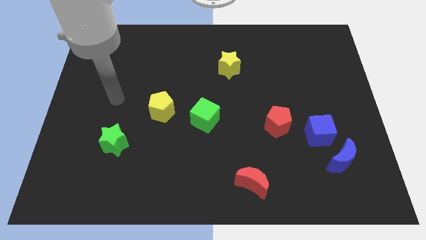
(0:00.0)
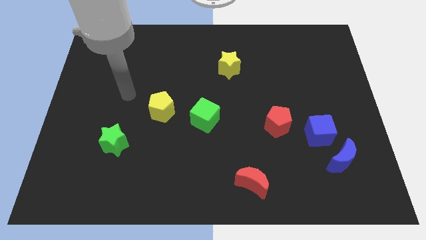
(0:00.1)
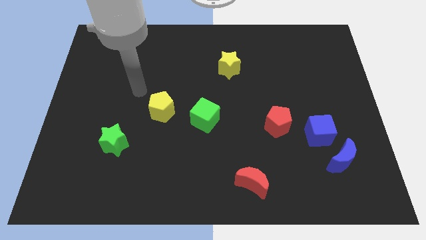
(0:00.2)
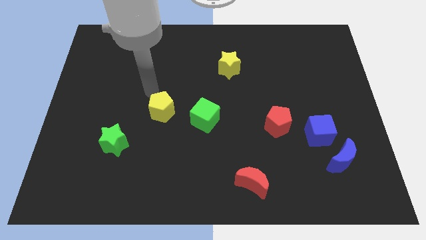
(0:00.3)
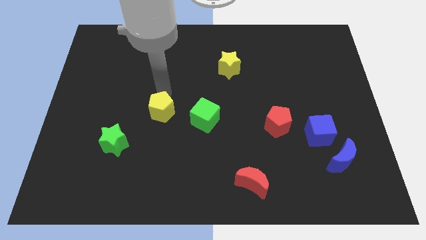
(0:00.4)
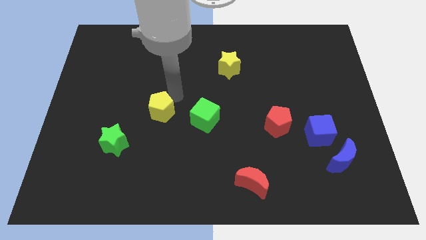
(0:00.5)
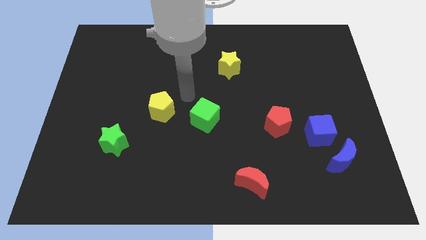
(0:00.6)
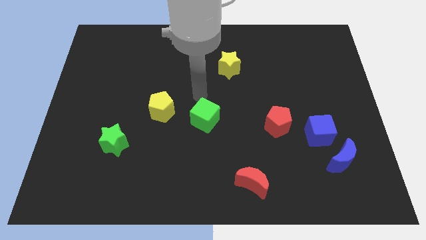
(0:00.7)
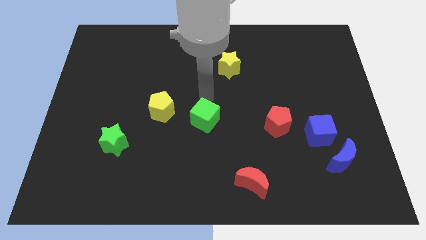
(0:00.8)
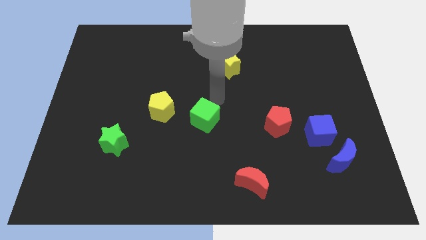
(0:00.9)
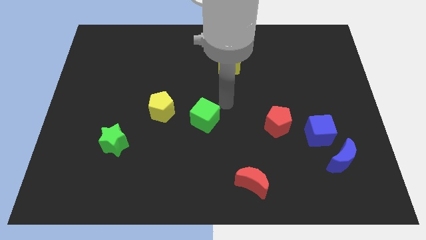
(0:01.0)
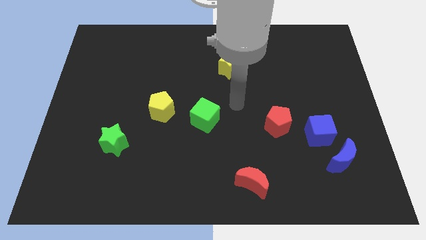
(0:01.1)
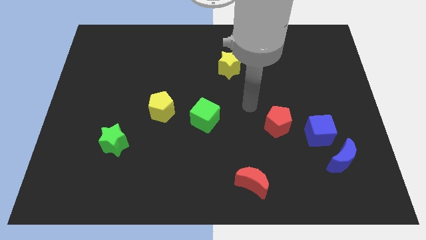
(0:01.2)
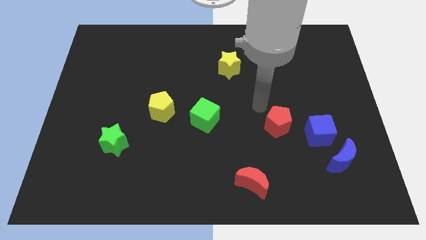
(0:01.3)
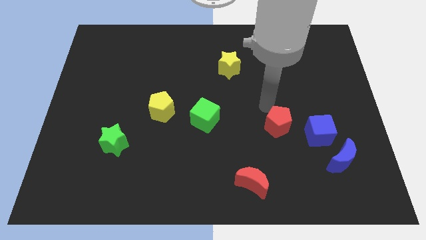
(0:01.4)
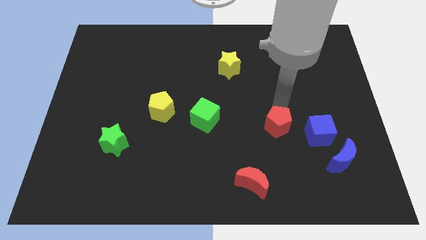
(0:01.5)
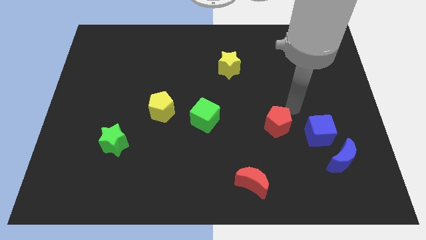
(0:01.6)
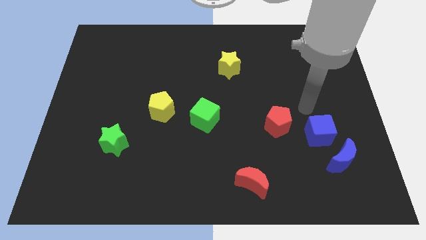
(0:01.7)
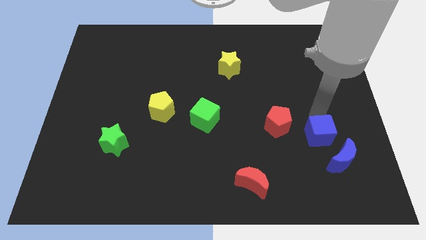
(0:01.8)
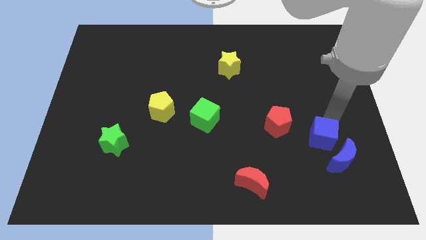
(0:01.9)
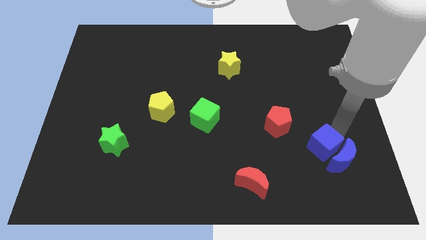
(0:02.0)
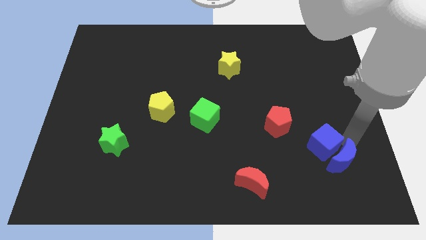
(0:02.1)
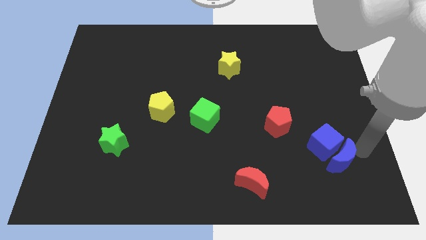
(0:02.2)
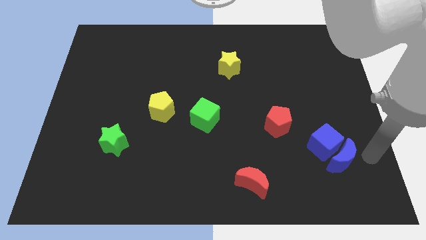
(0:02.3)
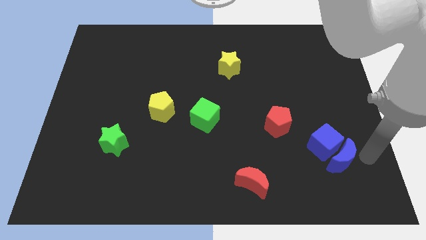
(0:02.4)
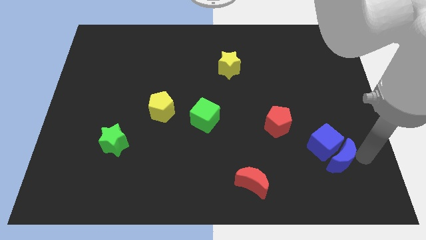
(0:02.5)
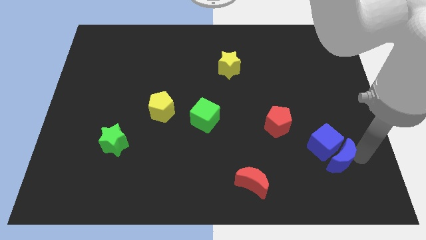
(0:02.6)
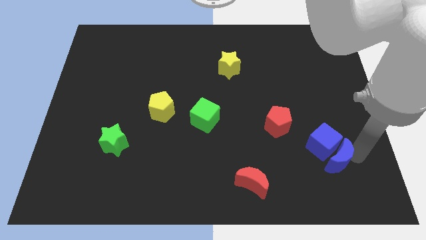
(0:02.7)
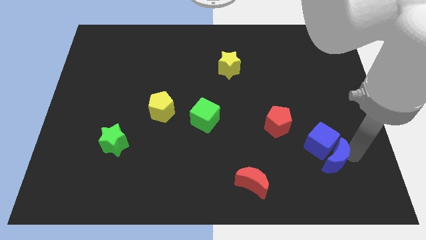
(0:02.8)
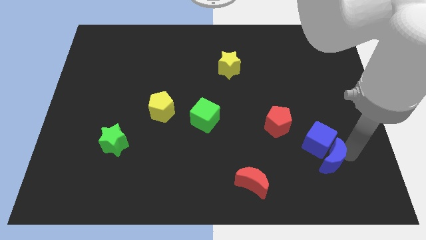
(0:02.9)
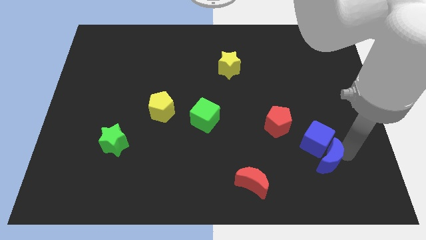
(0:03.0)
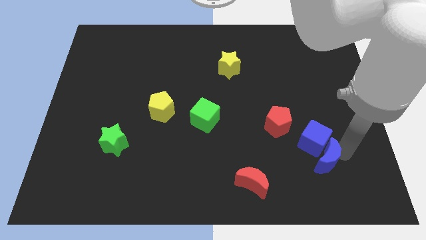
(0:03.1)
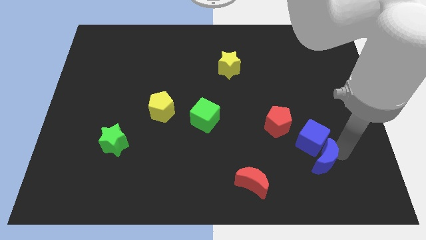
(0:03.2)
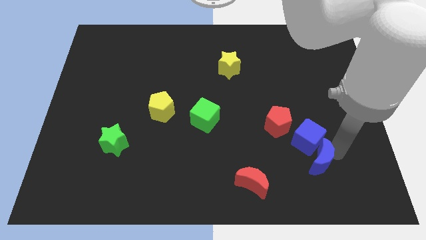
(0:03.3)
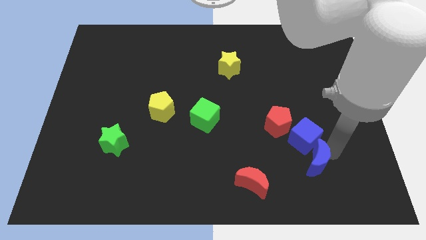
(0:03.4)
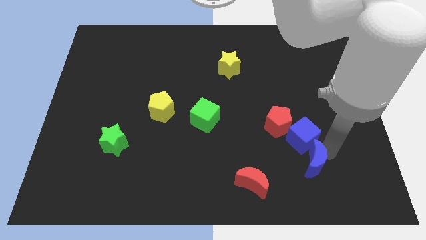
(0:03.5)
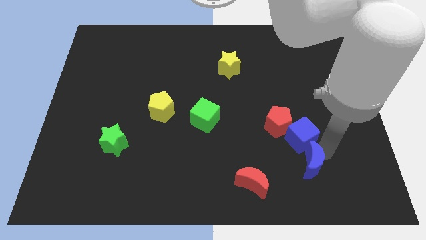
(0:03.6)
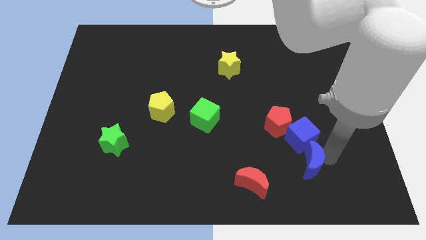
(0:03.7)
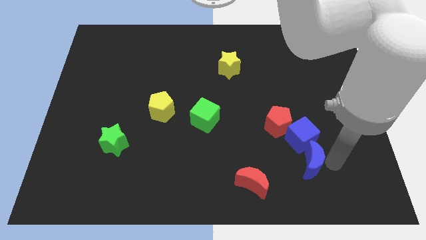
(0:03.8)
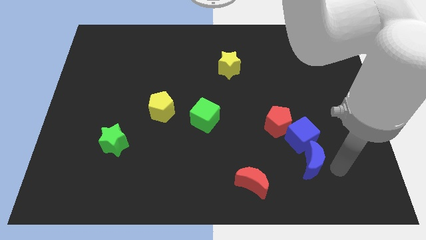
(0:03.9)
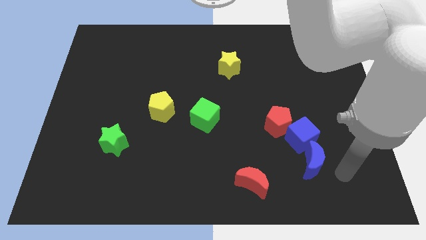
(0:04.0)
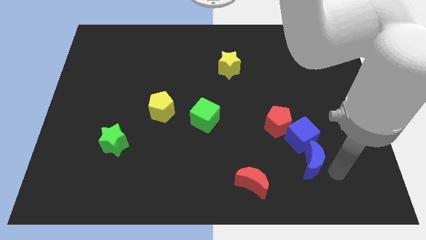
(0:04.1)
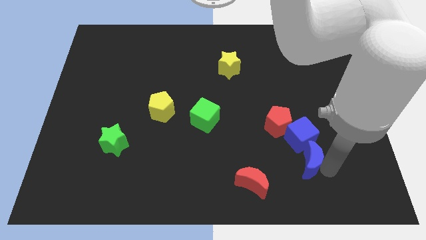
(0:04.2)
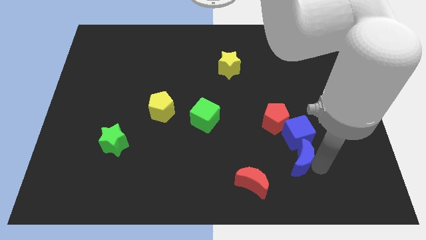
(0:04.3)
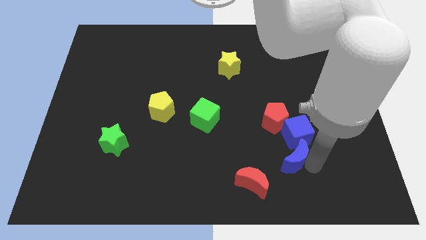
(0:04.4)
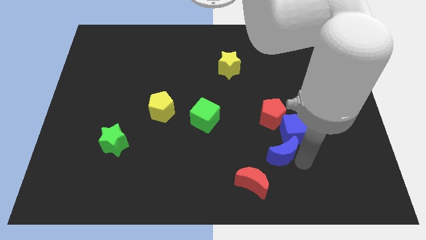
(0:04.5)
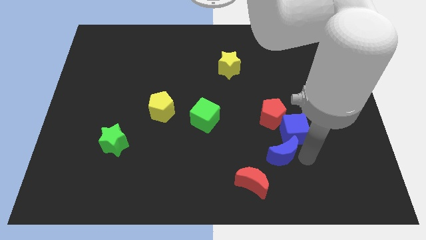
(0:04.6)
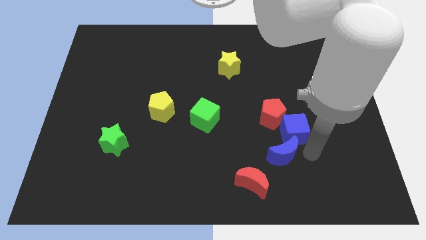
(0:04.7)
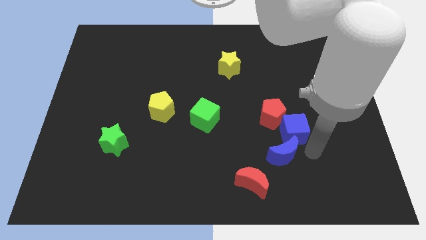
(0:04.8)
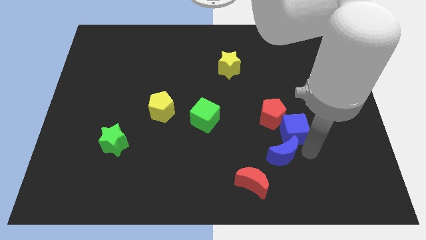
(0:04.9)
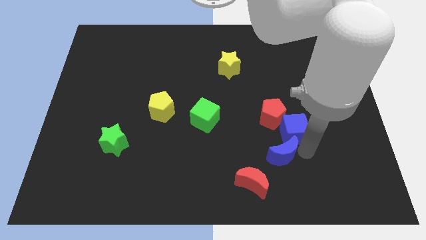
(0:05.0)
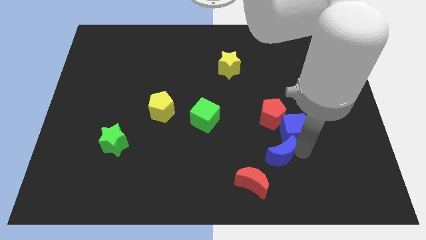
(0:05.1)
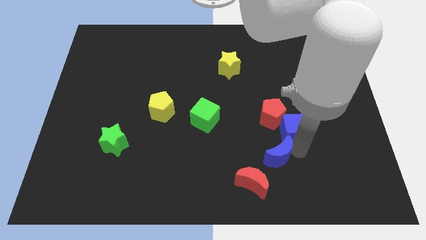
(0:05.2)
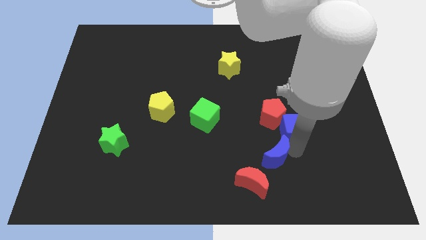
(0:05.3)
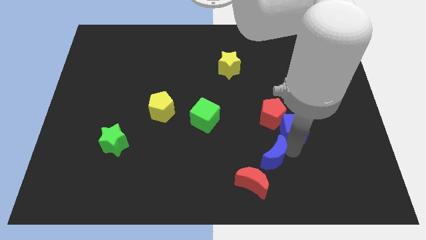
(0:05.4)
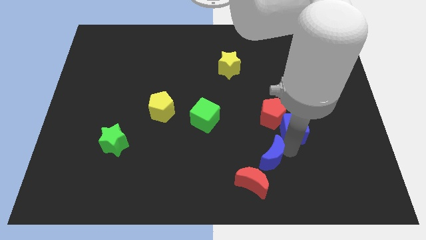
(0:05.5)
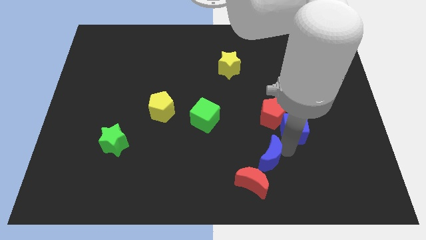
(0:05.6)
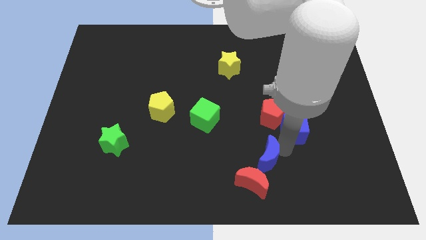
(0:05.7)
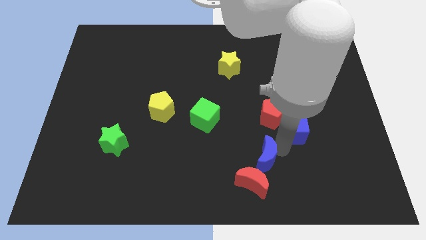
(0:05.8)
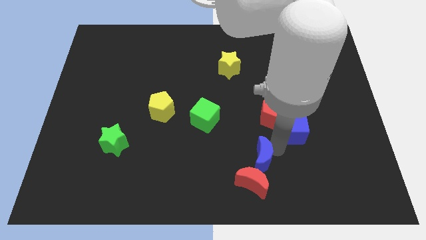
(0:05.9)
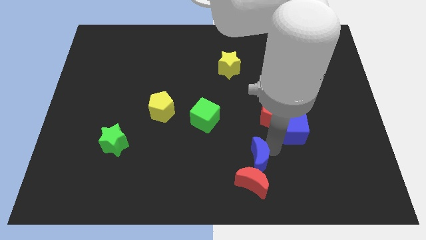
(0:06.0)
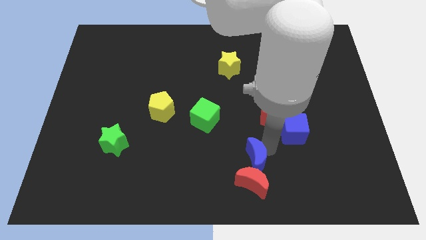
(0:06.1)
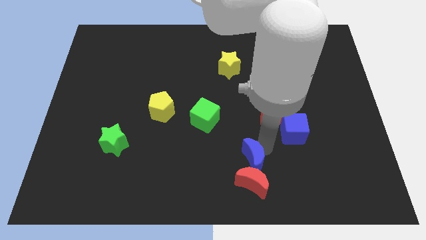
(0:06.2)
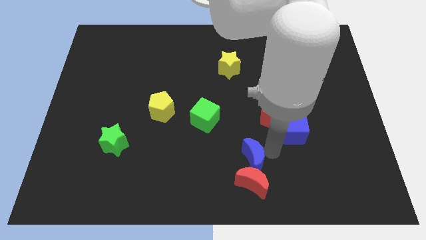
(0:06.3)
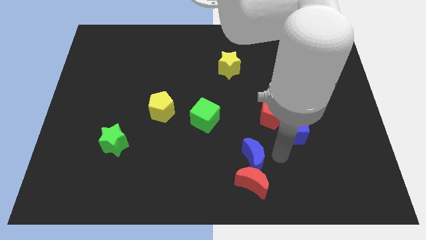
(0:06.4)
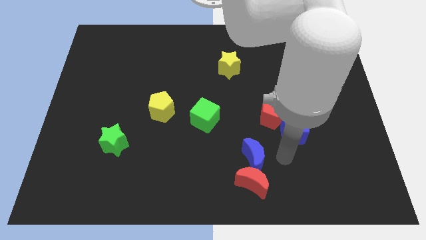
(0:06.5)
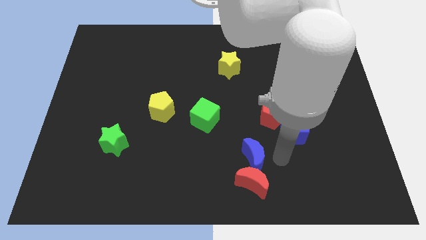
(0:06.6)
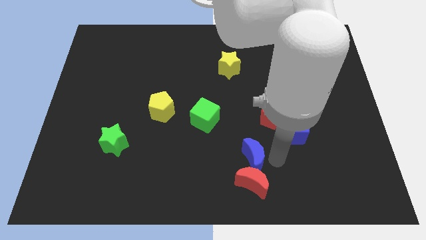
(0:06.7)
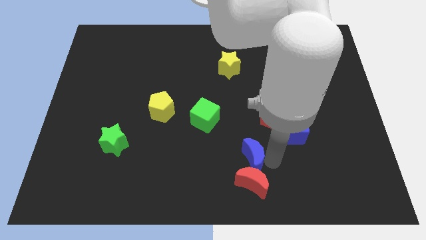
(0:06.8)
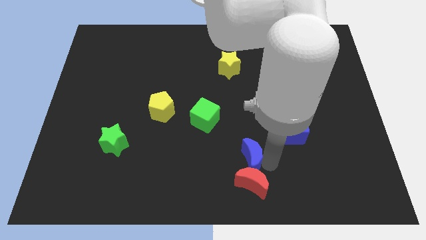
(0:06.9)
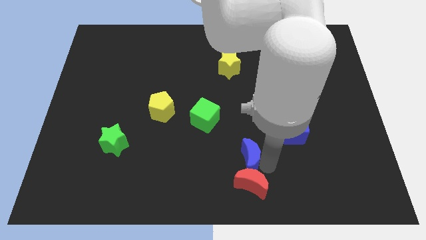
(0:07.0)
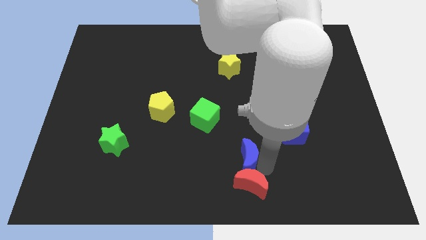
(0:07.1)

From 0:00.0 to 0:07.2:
slide the blue moon left

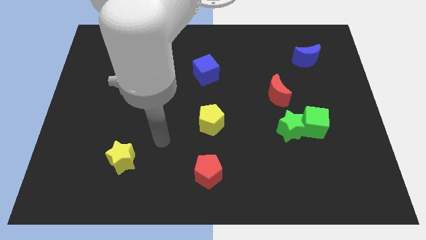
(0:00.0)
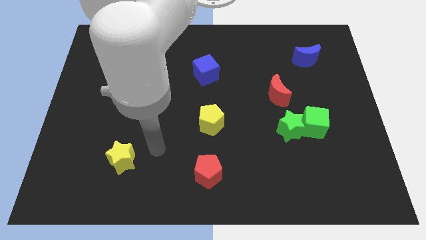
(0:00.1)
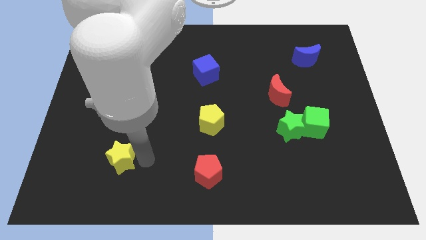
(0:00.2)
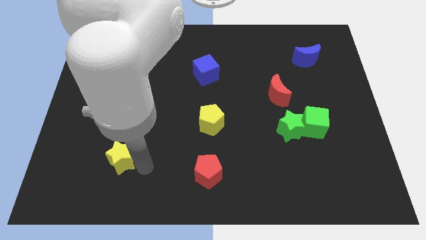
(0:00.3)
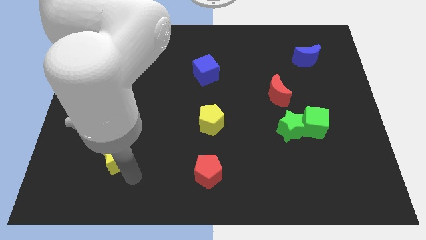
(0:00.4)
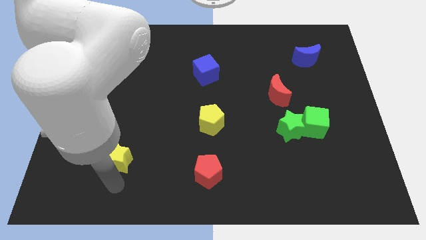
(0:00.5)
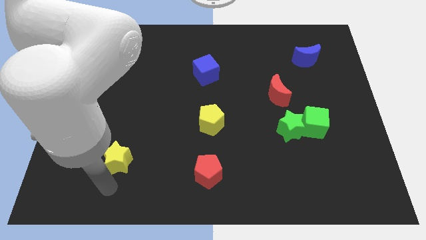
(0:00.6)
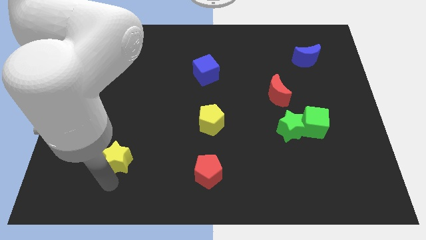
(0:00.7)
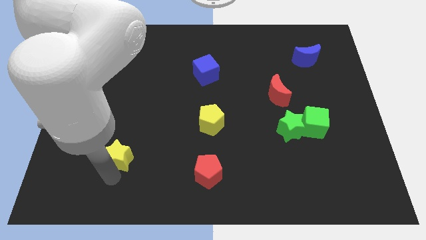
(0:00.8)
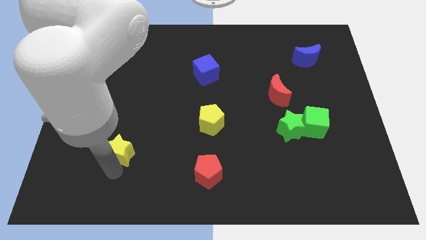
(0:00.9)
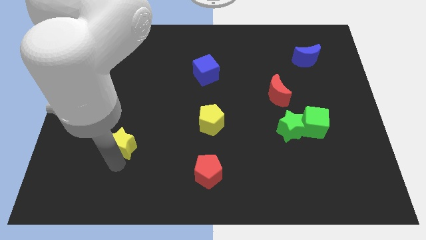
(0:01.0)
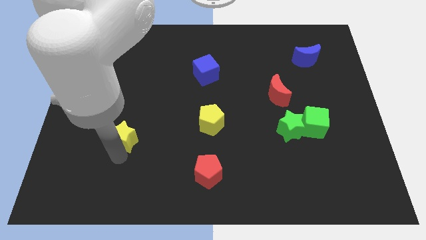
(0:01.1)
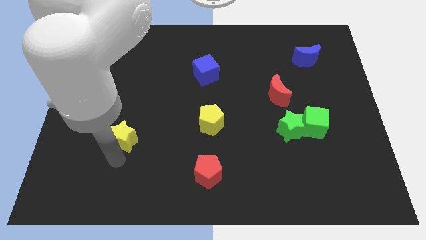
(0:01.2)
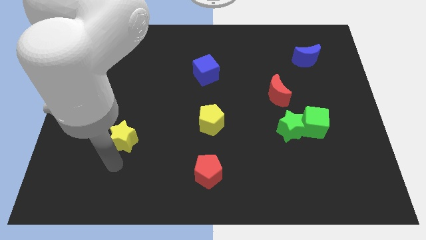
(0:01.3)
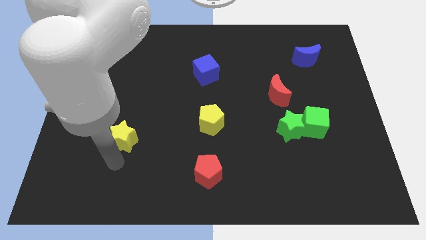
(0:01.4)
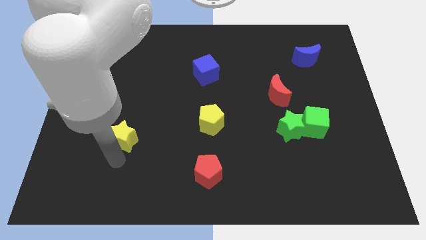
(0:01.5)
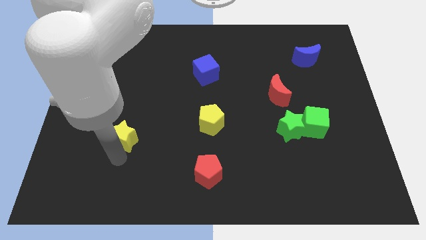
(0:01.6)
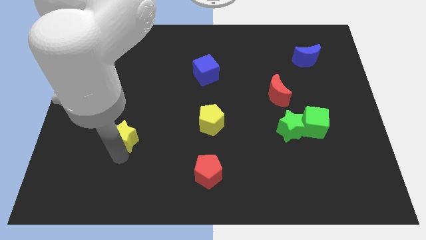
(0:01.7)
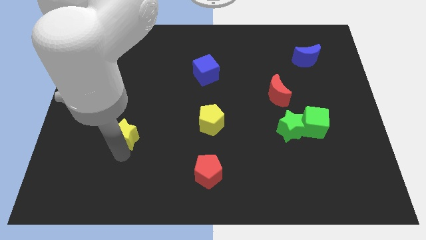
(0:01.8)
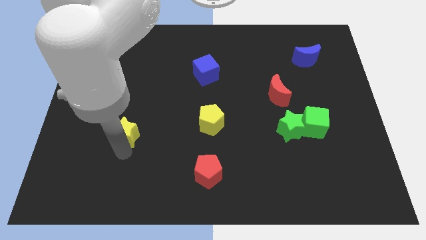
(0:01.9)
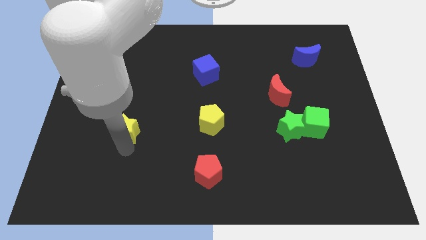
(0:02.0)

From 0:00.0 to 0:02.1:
move the yellow star a little up
